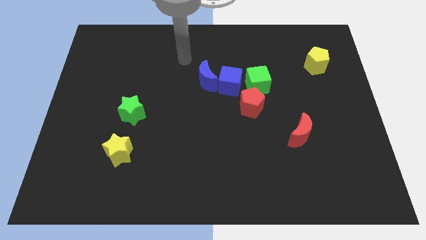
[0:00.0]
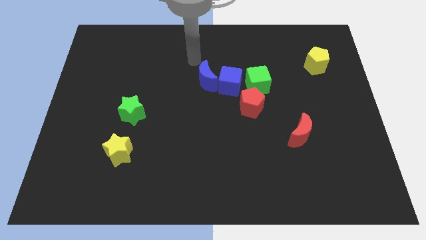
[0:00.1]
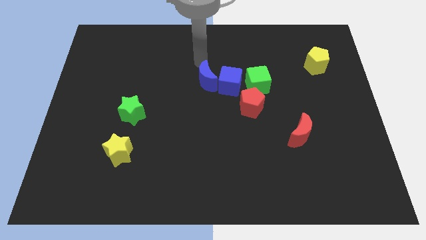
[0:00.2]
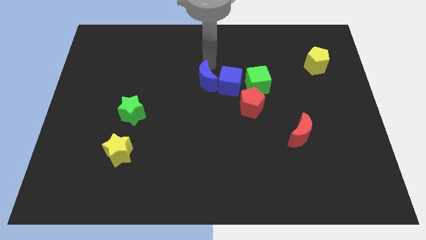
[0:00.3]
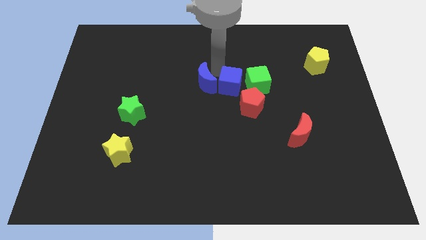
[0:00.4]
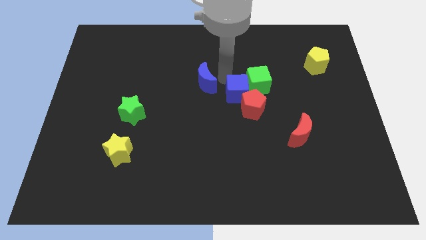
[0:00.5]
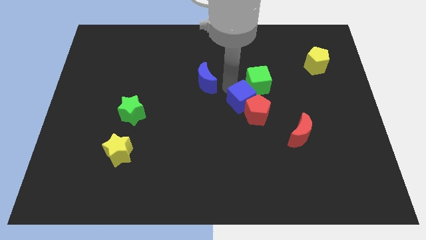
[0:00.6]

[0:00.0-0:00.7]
pull the blue moon apart from the blue cube

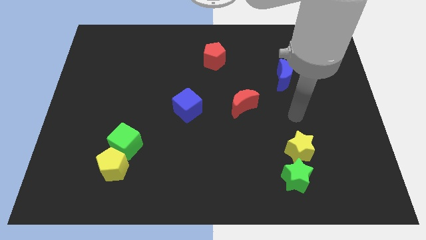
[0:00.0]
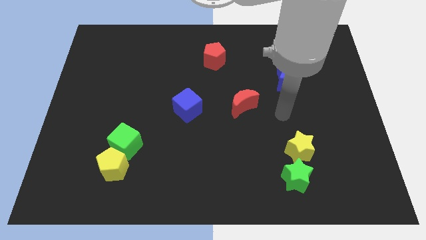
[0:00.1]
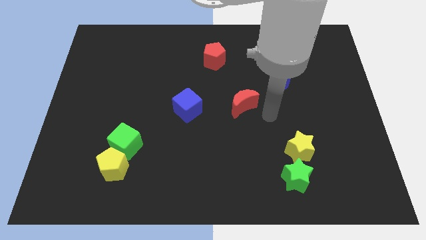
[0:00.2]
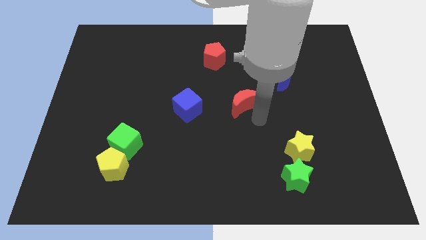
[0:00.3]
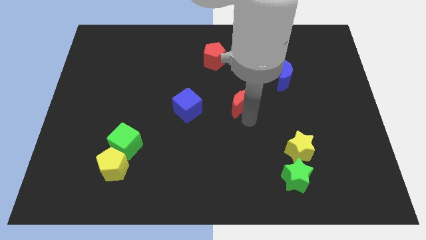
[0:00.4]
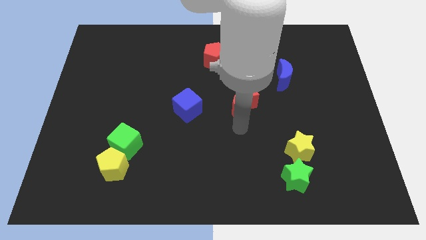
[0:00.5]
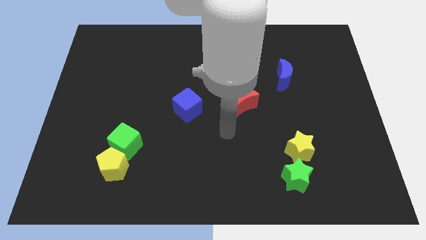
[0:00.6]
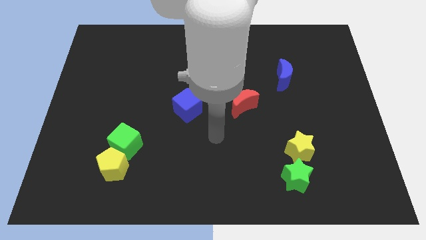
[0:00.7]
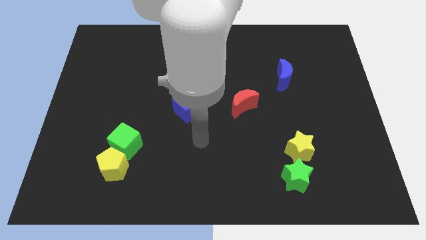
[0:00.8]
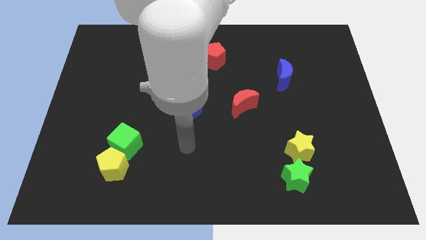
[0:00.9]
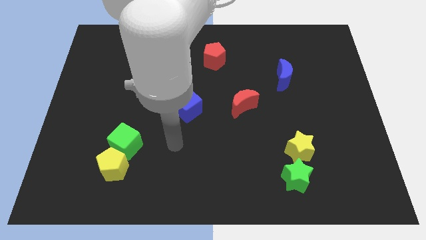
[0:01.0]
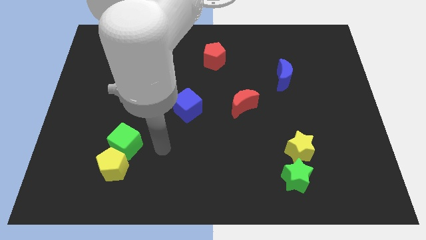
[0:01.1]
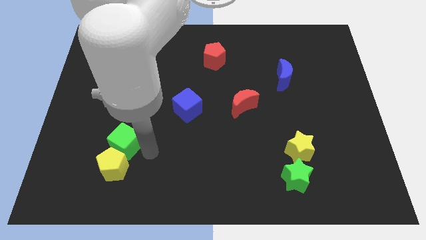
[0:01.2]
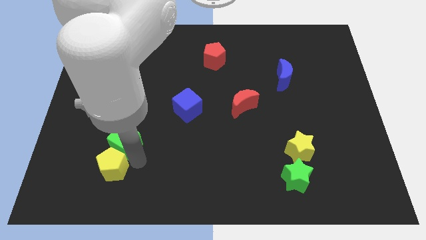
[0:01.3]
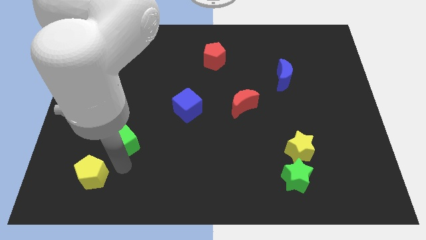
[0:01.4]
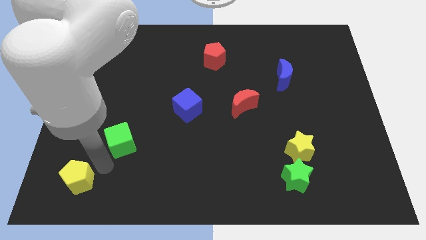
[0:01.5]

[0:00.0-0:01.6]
pull the green cube apart from the yellow pentagon

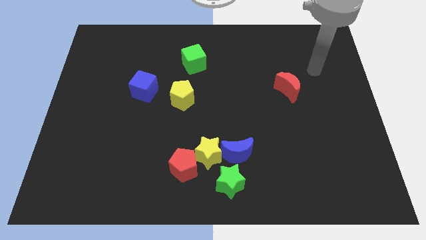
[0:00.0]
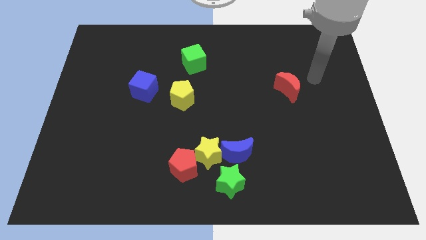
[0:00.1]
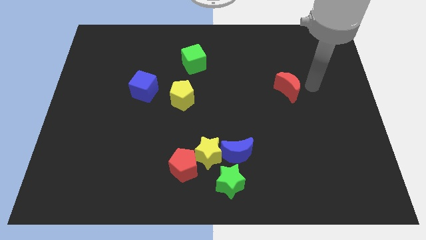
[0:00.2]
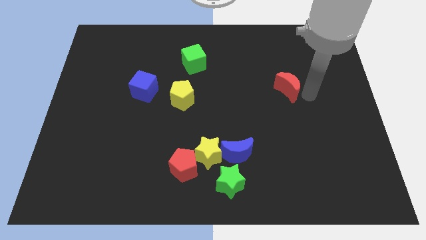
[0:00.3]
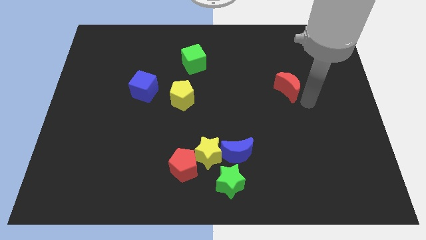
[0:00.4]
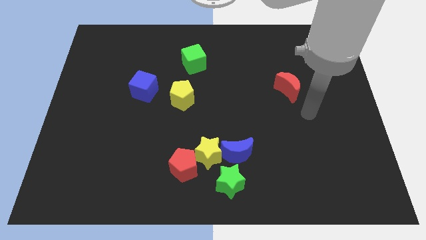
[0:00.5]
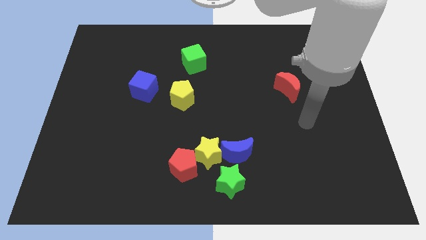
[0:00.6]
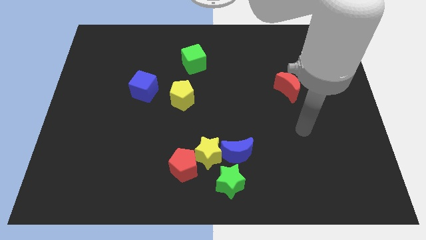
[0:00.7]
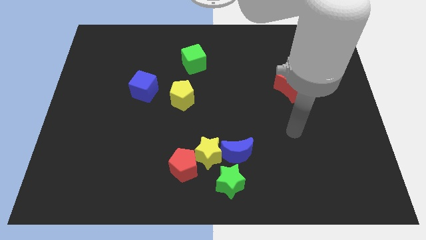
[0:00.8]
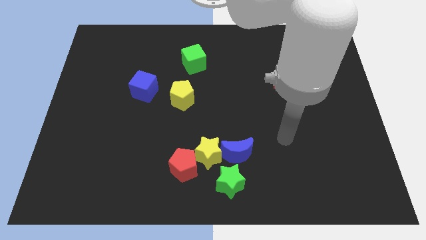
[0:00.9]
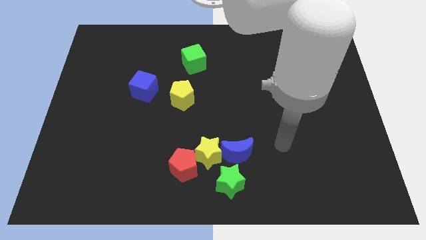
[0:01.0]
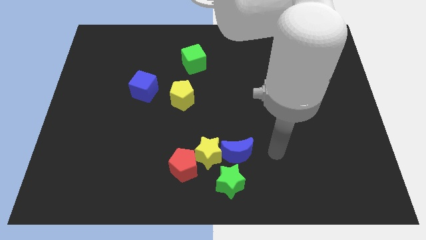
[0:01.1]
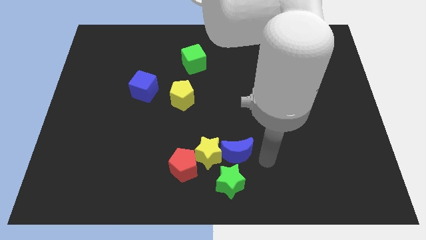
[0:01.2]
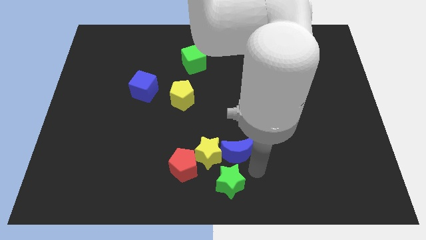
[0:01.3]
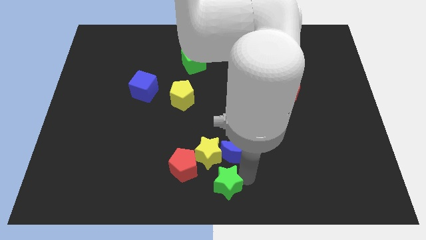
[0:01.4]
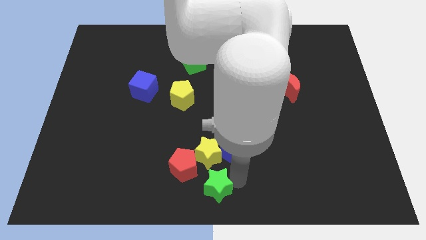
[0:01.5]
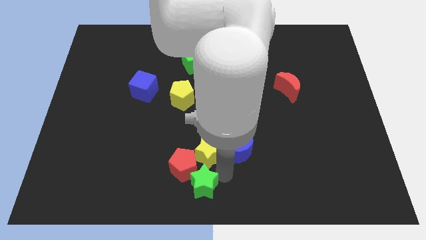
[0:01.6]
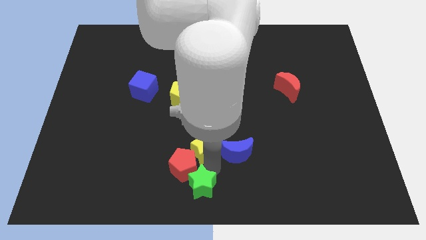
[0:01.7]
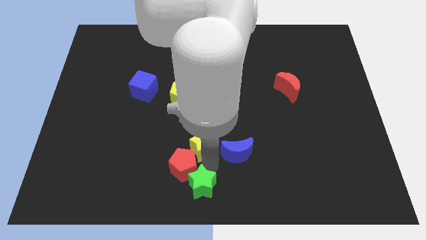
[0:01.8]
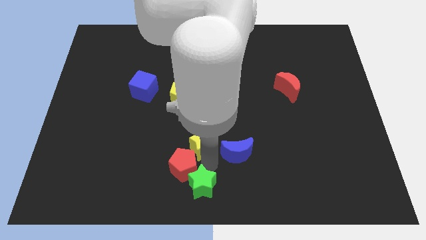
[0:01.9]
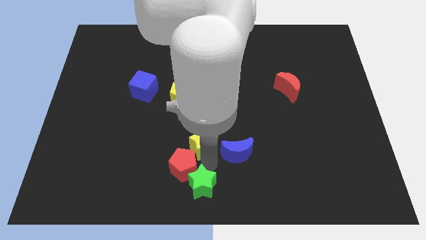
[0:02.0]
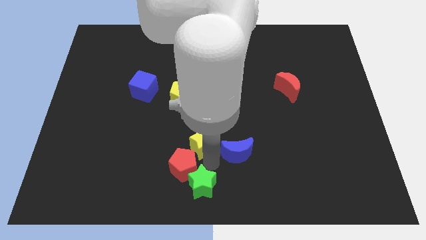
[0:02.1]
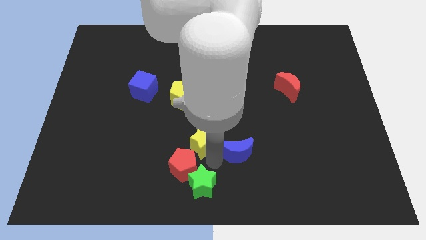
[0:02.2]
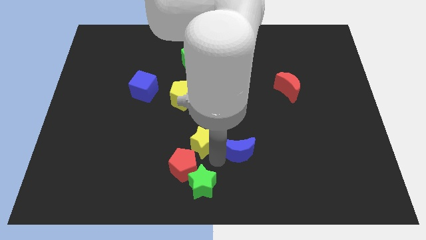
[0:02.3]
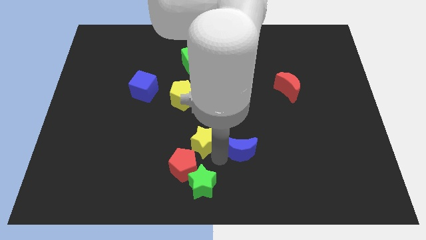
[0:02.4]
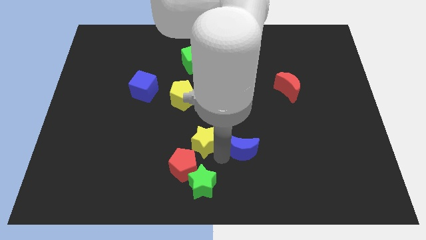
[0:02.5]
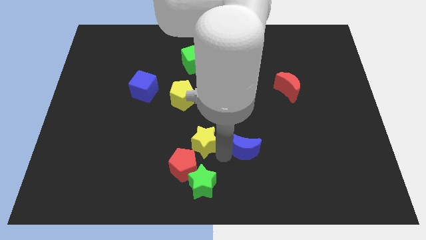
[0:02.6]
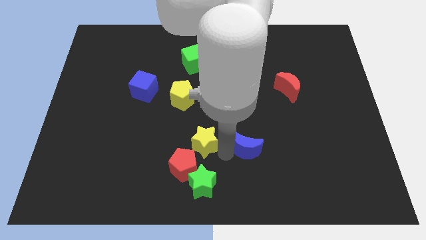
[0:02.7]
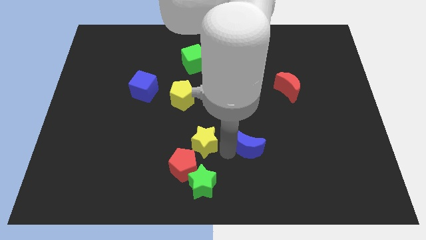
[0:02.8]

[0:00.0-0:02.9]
separate the blue moon from the yellow star and green star

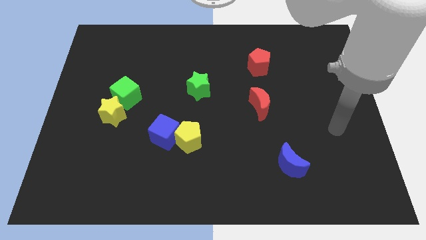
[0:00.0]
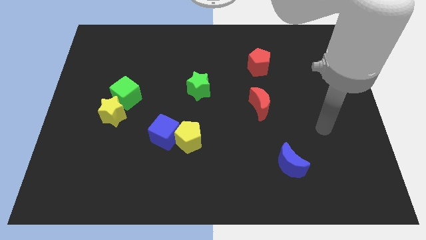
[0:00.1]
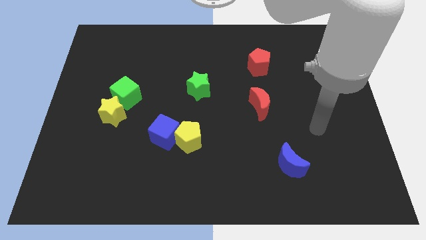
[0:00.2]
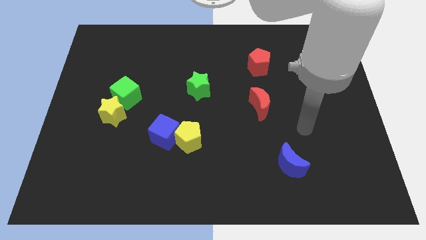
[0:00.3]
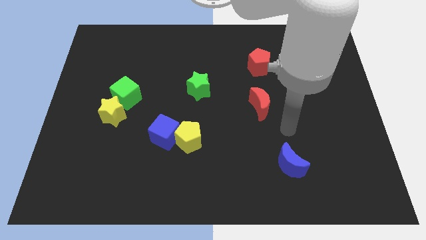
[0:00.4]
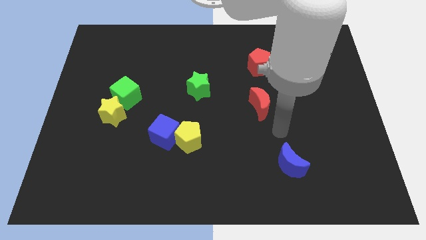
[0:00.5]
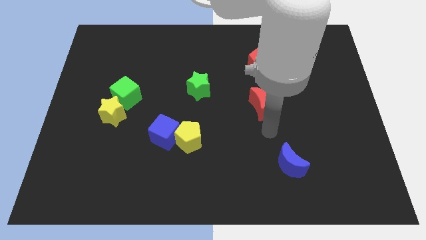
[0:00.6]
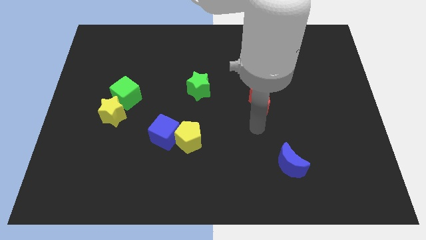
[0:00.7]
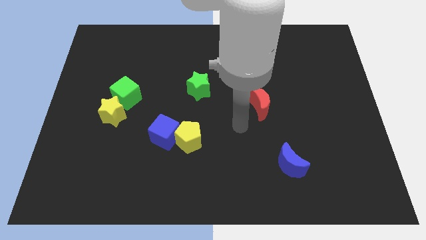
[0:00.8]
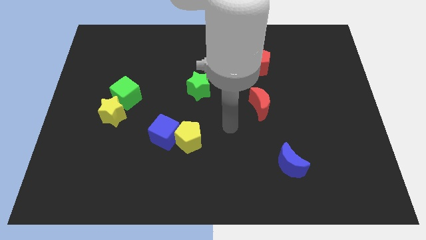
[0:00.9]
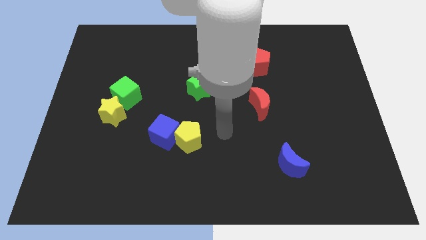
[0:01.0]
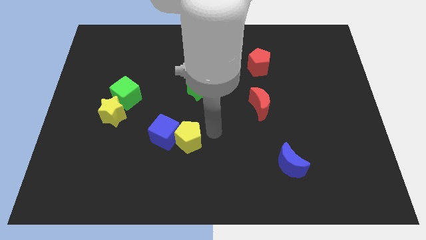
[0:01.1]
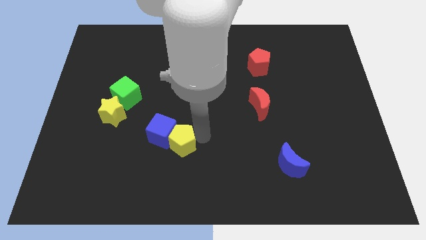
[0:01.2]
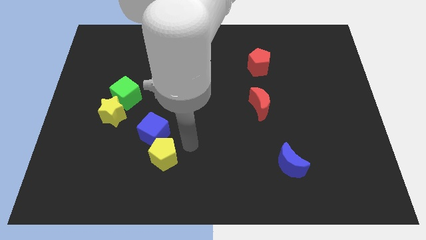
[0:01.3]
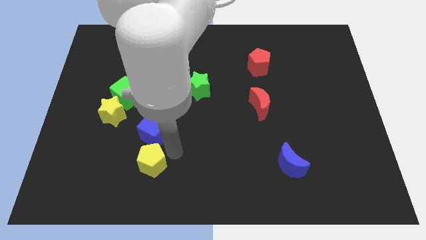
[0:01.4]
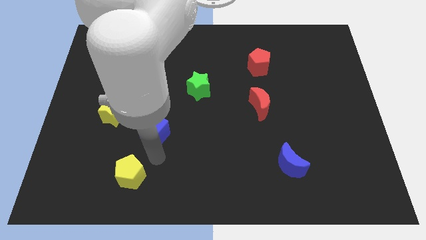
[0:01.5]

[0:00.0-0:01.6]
pull the blue cube apart from the yellow pentagon

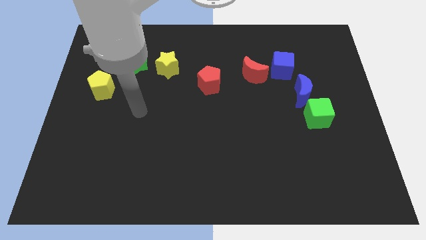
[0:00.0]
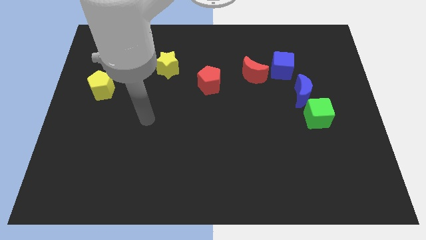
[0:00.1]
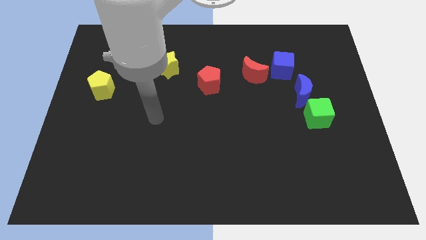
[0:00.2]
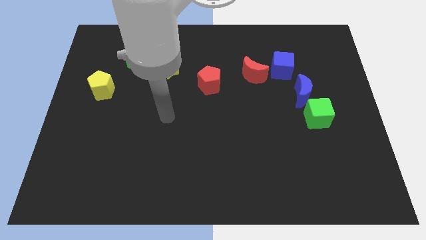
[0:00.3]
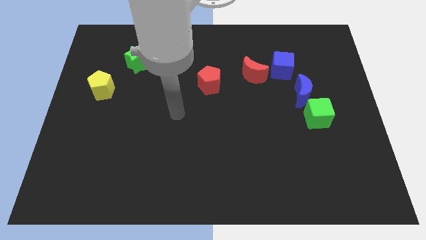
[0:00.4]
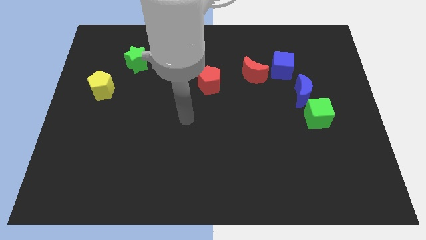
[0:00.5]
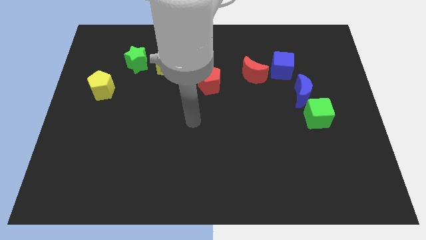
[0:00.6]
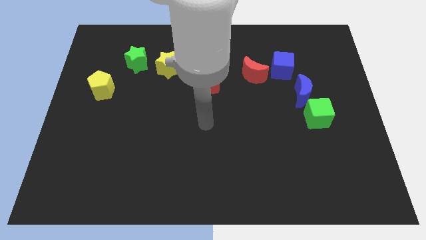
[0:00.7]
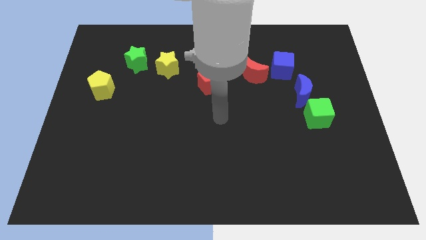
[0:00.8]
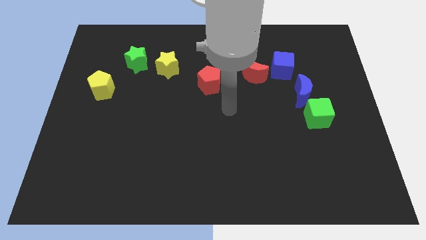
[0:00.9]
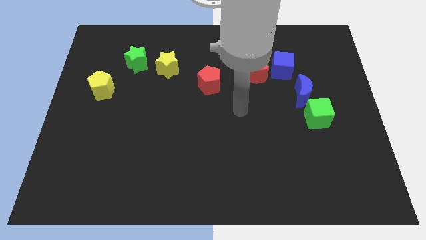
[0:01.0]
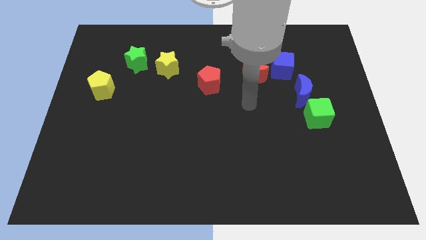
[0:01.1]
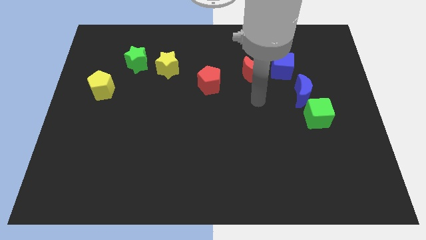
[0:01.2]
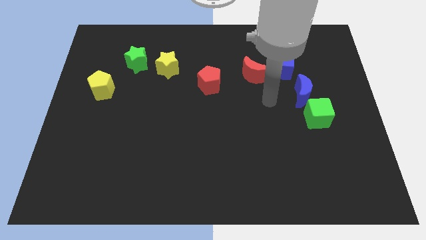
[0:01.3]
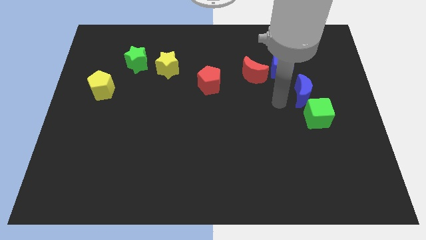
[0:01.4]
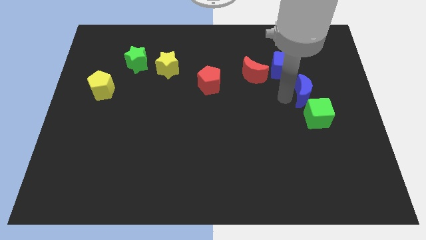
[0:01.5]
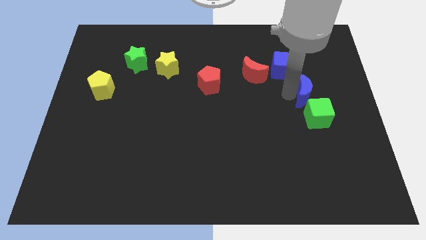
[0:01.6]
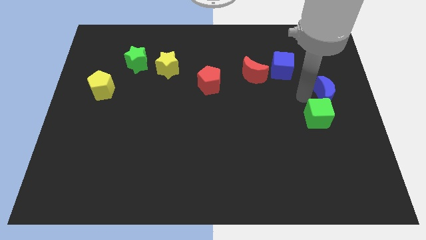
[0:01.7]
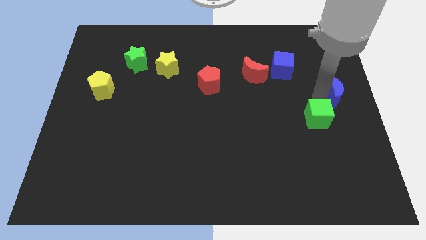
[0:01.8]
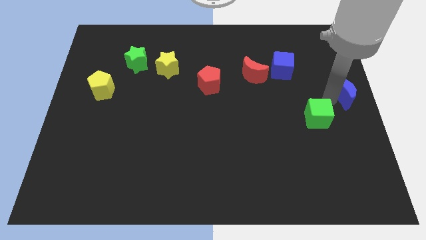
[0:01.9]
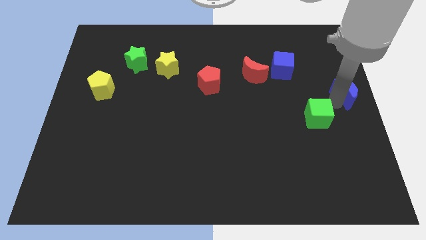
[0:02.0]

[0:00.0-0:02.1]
move the green cube away from the blue moon

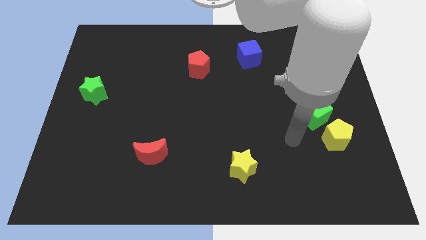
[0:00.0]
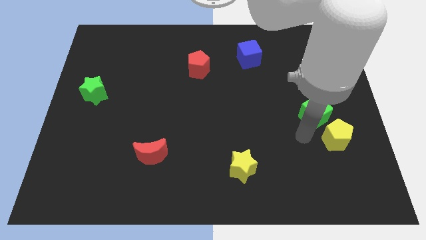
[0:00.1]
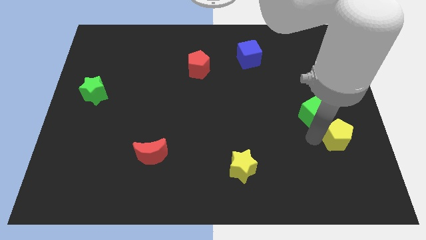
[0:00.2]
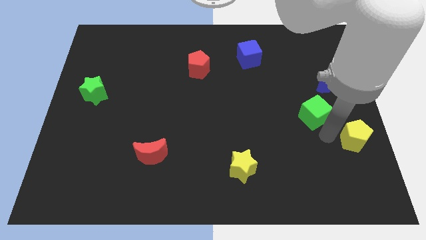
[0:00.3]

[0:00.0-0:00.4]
separate the green cube from the yellow pentagon
